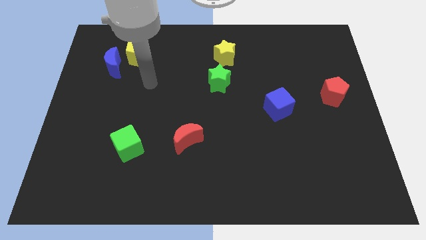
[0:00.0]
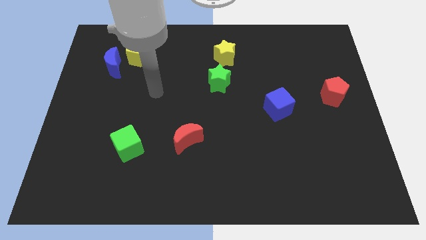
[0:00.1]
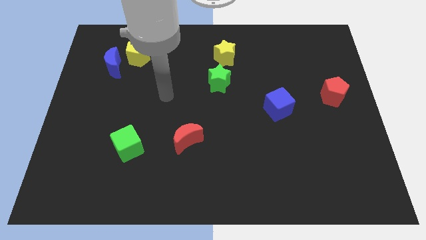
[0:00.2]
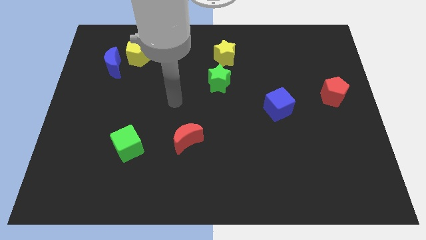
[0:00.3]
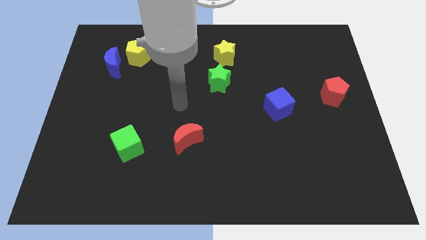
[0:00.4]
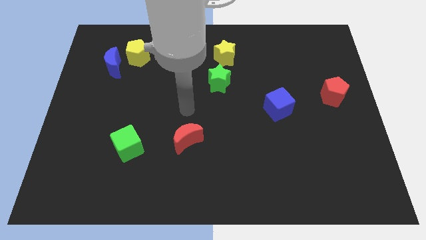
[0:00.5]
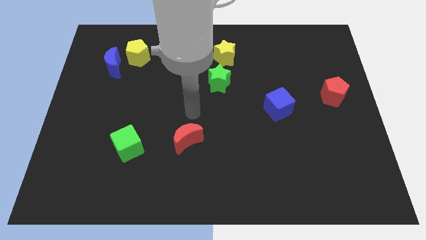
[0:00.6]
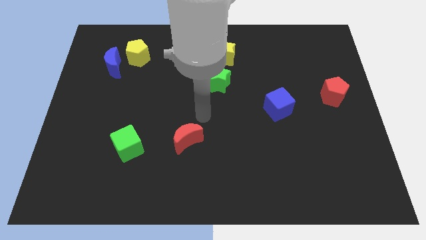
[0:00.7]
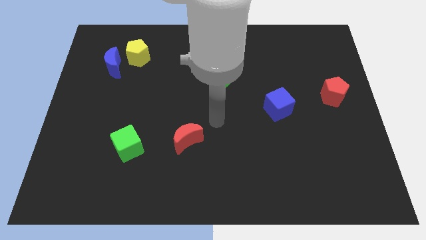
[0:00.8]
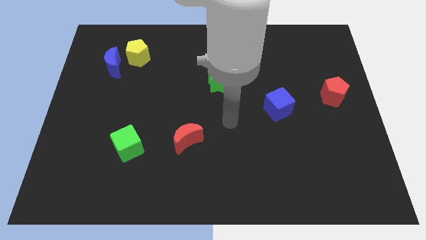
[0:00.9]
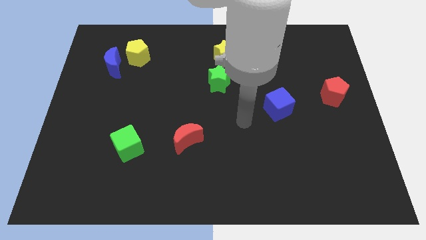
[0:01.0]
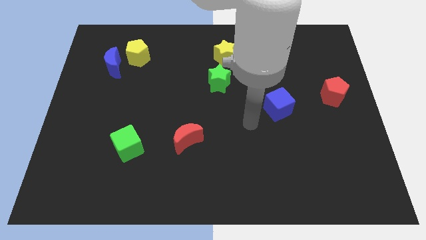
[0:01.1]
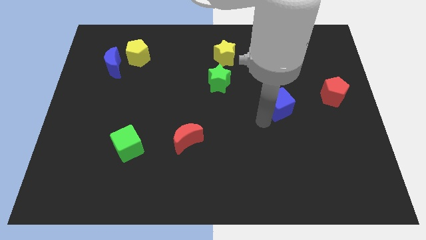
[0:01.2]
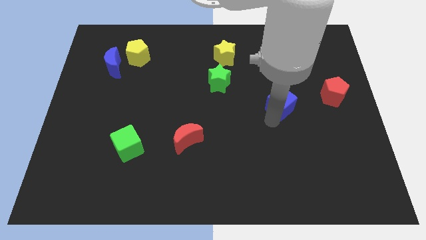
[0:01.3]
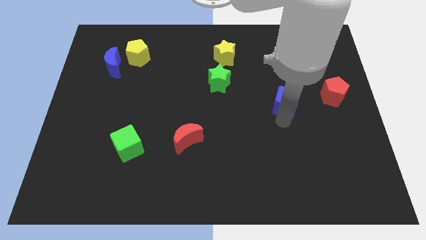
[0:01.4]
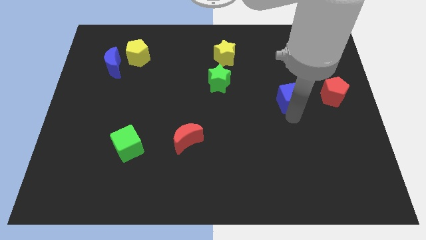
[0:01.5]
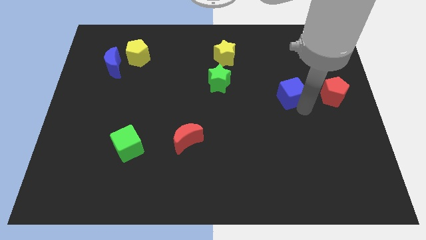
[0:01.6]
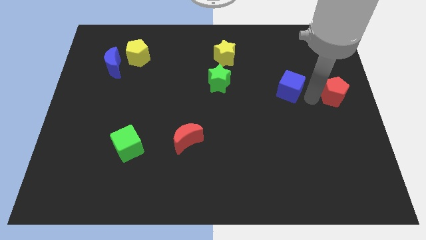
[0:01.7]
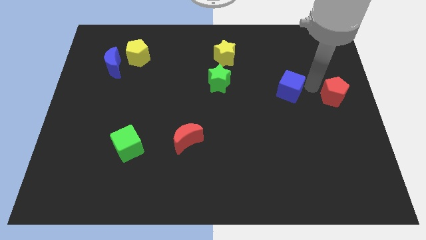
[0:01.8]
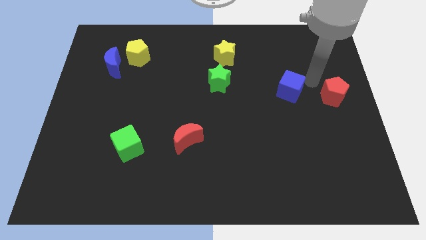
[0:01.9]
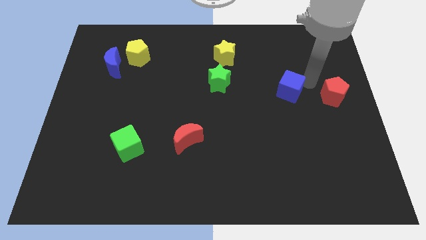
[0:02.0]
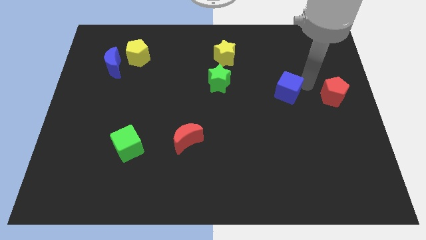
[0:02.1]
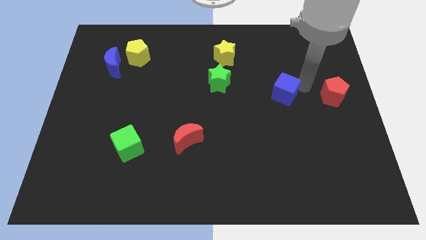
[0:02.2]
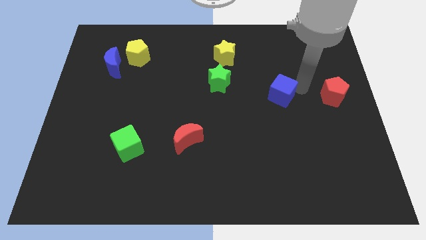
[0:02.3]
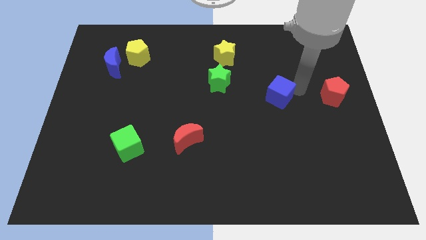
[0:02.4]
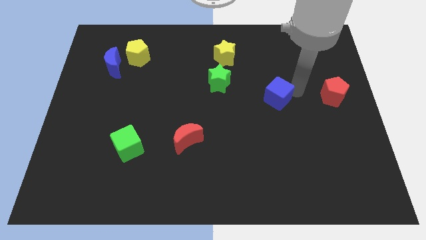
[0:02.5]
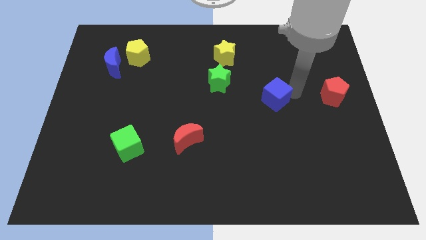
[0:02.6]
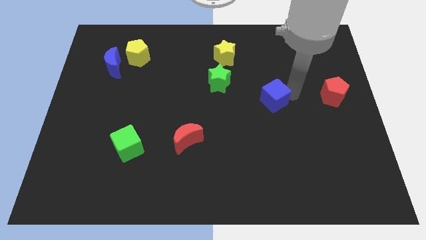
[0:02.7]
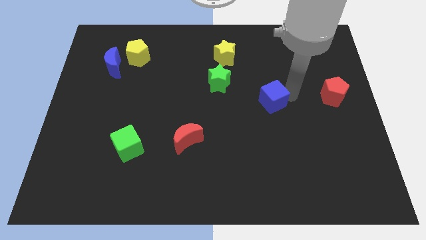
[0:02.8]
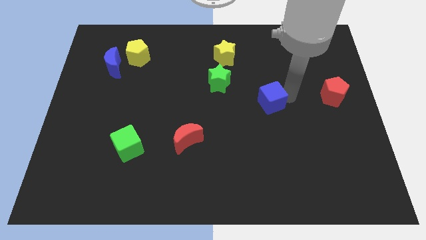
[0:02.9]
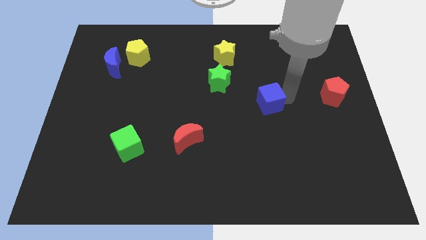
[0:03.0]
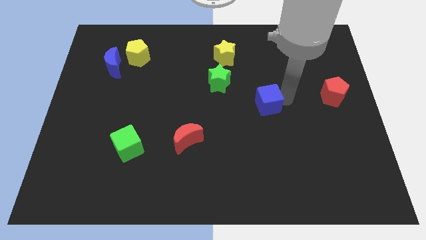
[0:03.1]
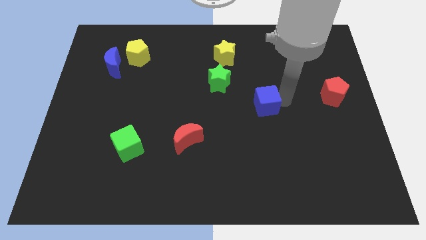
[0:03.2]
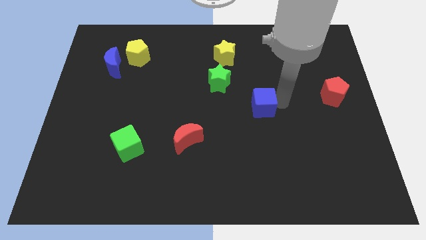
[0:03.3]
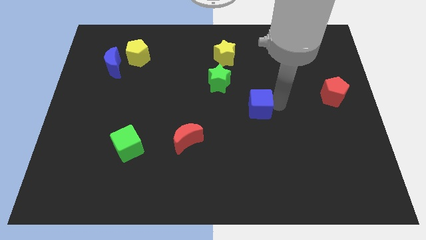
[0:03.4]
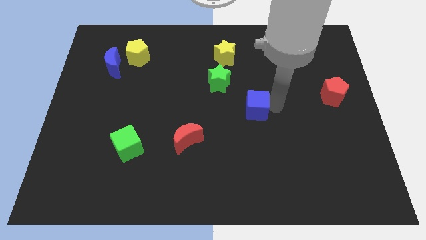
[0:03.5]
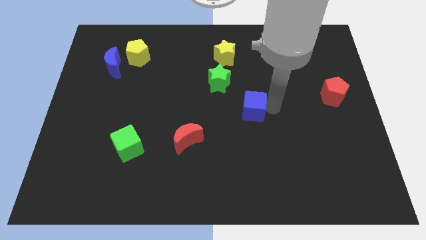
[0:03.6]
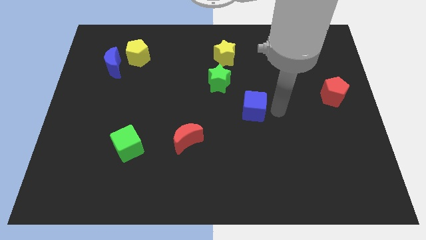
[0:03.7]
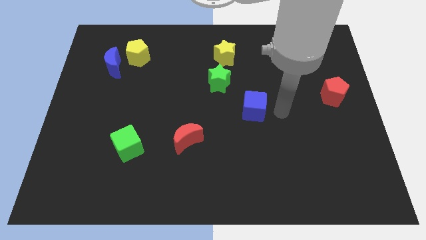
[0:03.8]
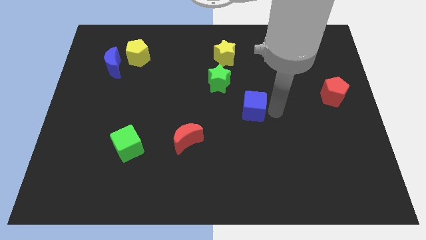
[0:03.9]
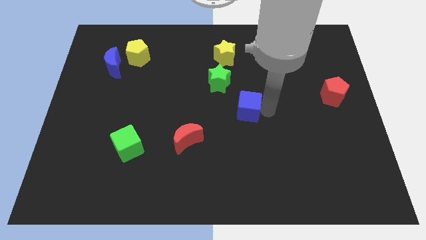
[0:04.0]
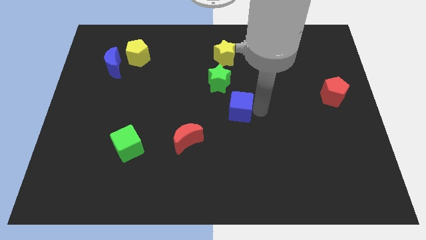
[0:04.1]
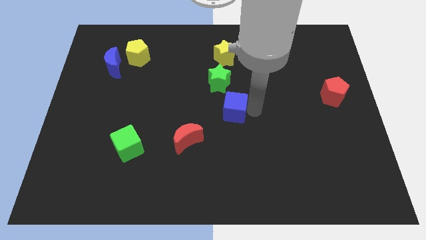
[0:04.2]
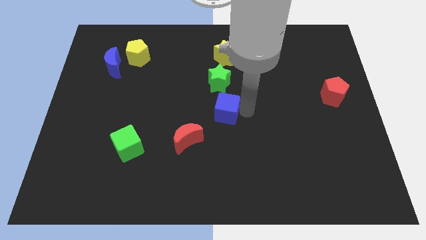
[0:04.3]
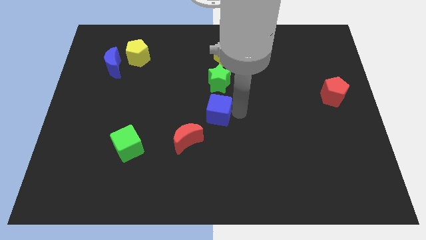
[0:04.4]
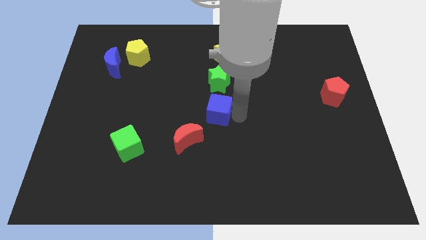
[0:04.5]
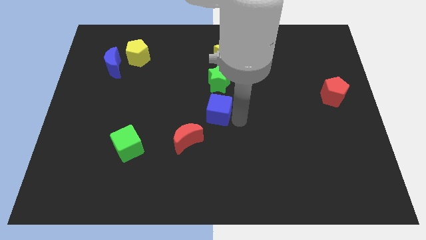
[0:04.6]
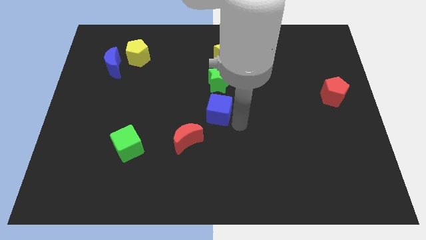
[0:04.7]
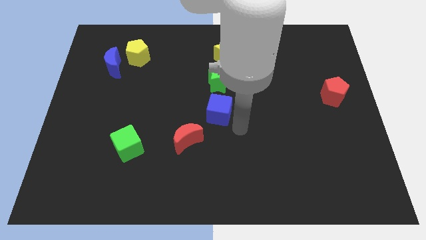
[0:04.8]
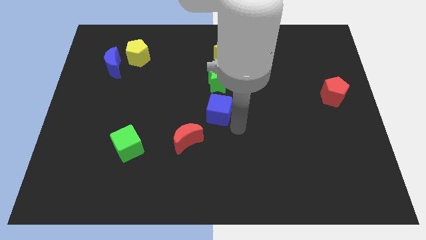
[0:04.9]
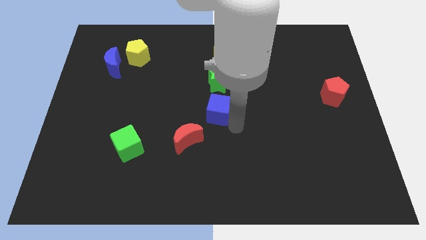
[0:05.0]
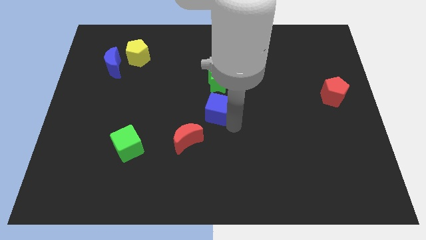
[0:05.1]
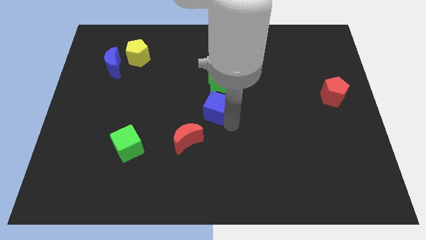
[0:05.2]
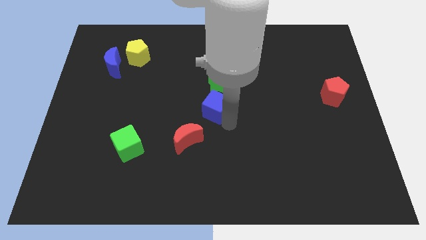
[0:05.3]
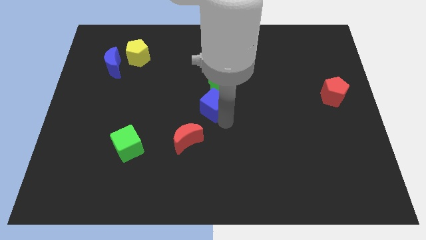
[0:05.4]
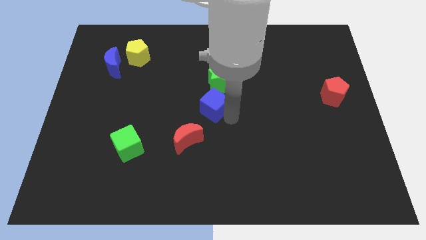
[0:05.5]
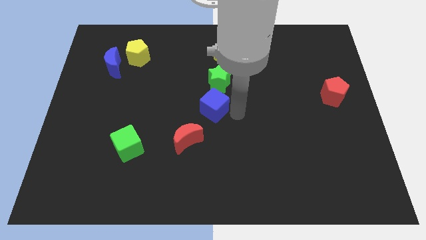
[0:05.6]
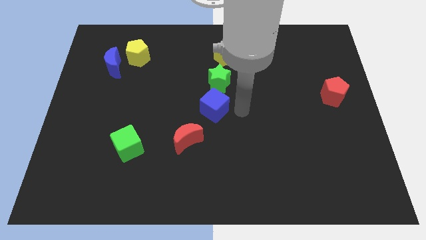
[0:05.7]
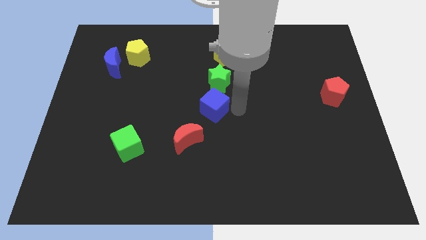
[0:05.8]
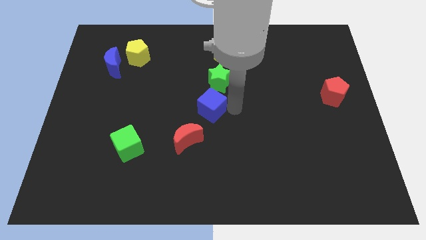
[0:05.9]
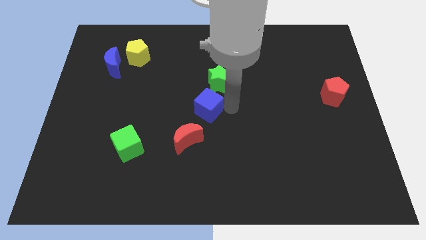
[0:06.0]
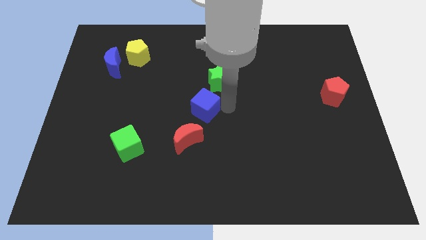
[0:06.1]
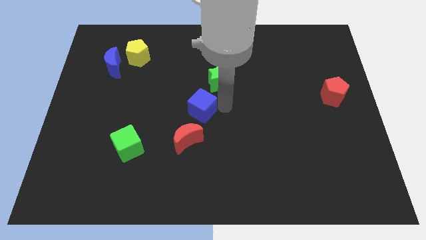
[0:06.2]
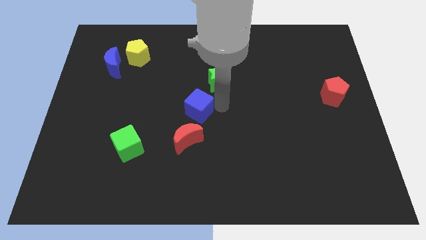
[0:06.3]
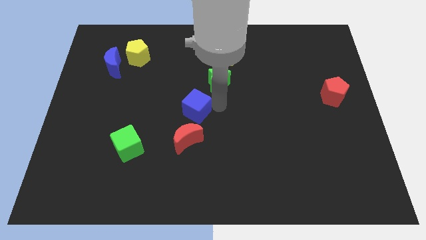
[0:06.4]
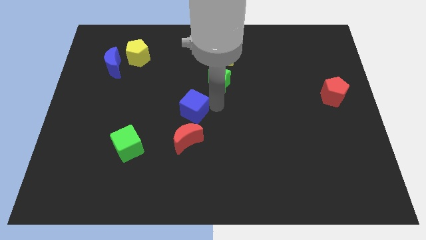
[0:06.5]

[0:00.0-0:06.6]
slide the blue cube to the left

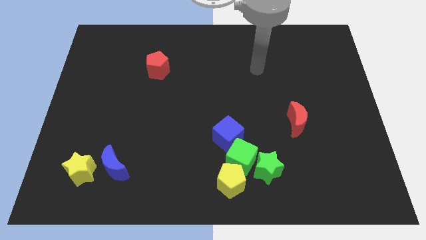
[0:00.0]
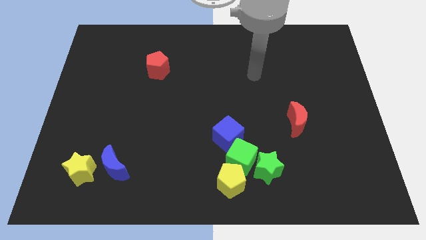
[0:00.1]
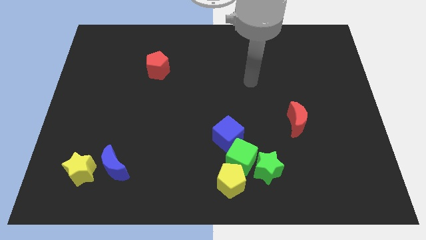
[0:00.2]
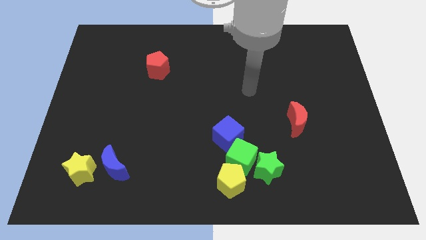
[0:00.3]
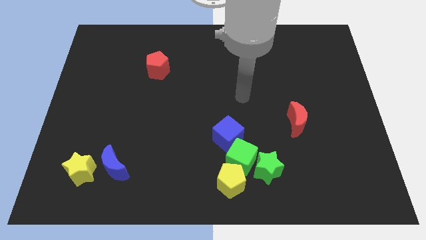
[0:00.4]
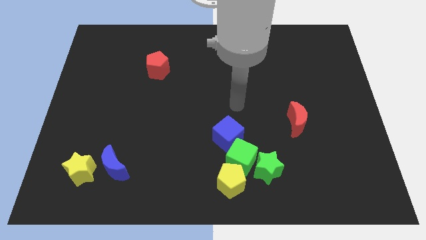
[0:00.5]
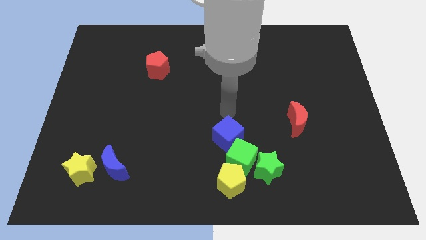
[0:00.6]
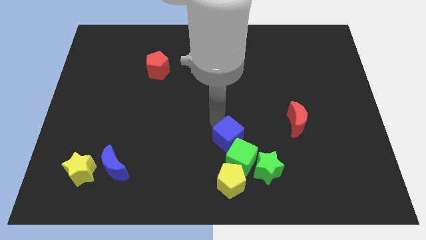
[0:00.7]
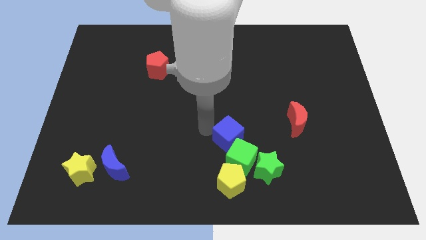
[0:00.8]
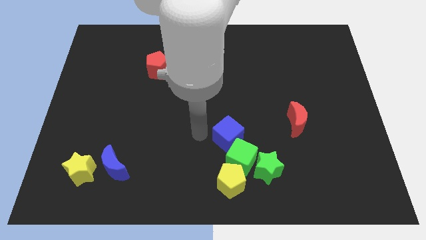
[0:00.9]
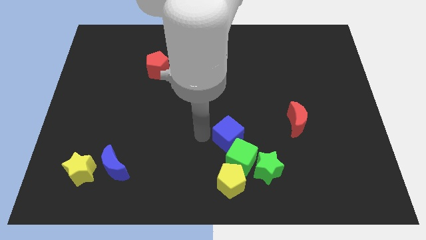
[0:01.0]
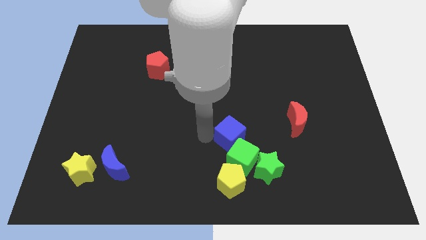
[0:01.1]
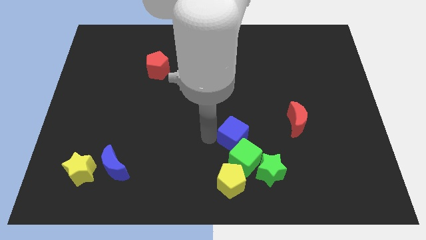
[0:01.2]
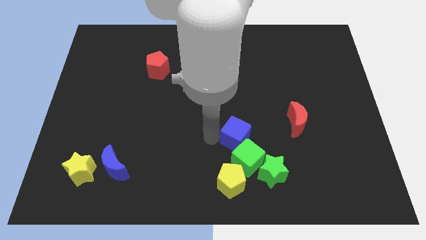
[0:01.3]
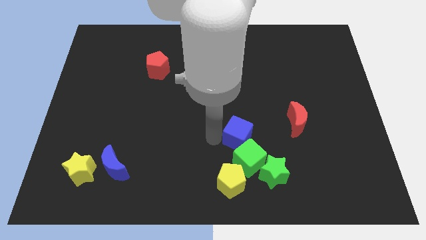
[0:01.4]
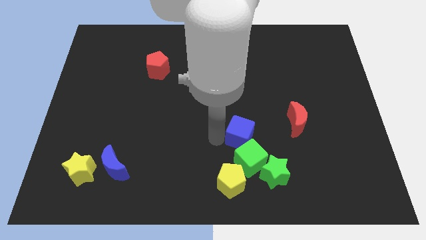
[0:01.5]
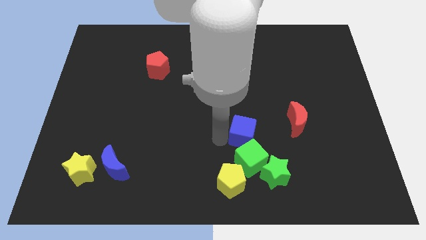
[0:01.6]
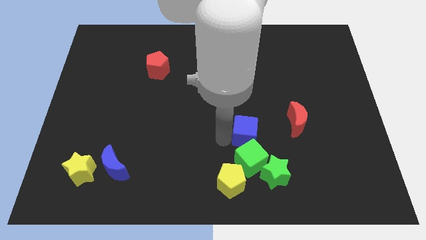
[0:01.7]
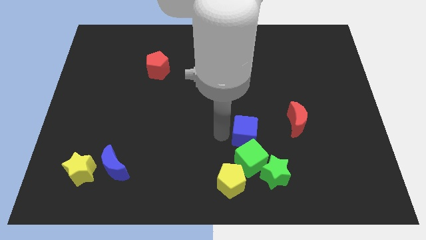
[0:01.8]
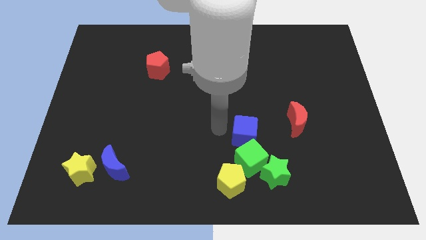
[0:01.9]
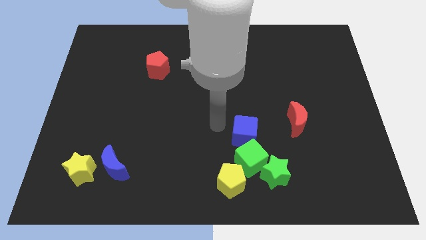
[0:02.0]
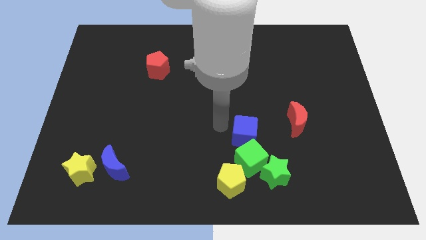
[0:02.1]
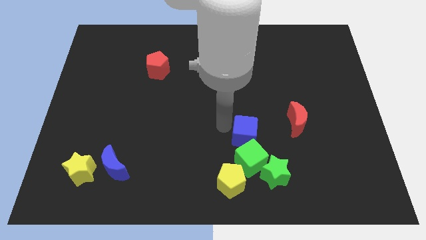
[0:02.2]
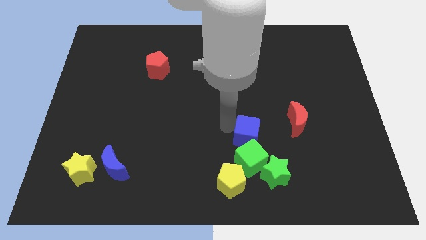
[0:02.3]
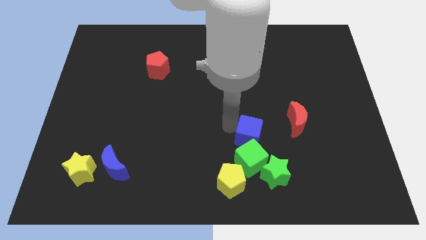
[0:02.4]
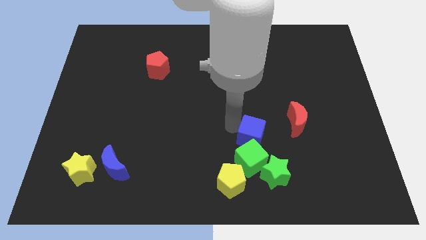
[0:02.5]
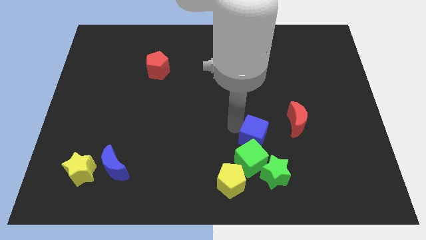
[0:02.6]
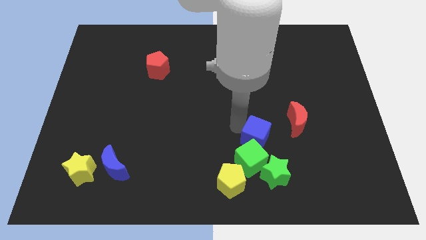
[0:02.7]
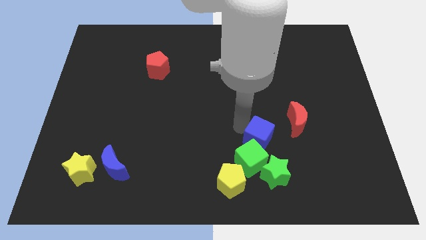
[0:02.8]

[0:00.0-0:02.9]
slide the blue cube somewhat right
